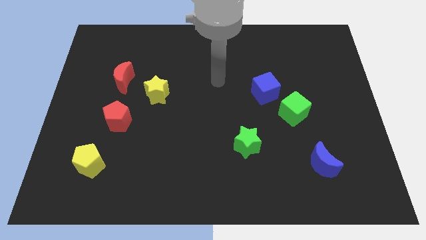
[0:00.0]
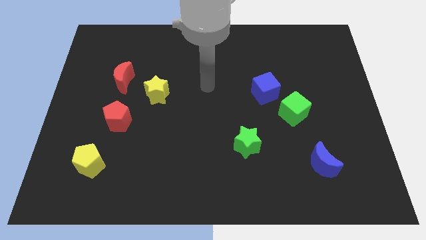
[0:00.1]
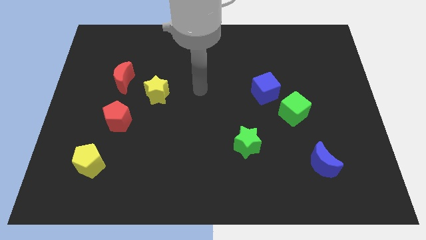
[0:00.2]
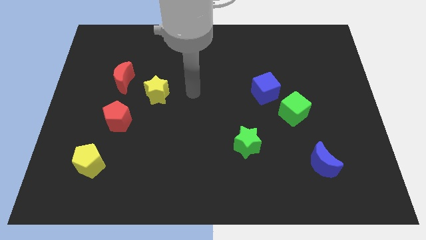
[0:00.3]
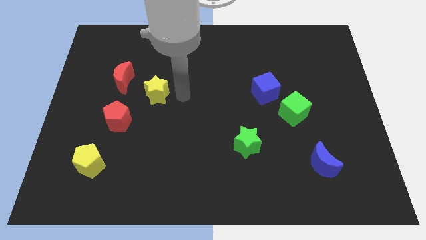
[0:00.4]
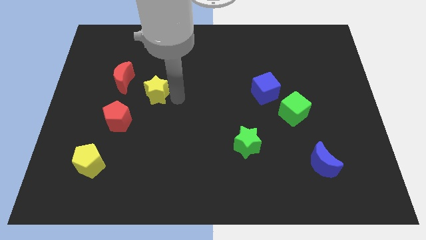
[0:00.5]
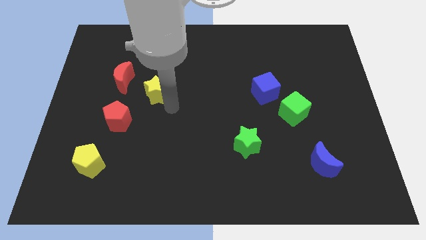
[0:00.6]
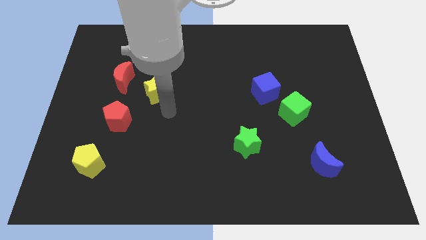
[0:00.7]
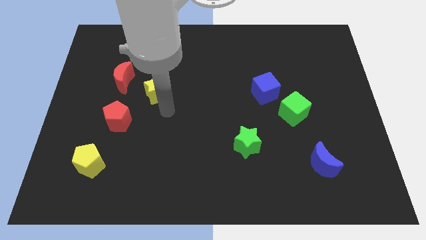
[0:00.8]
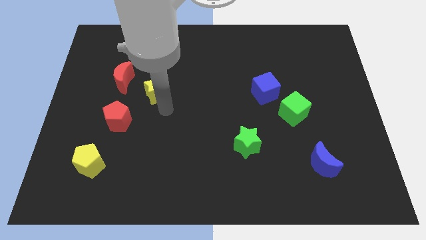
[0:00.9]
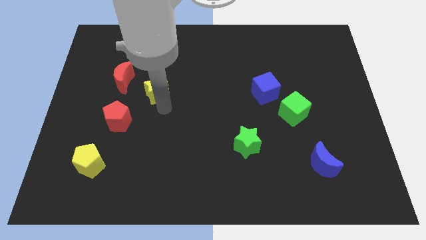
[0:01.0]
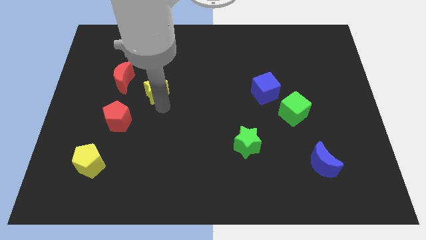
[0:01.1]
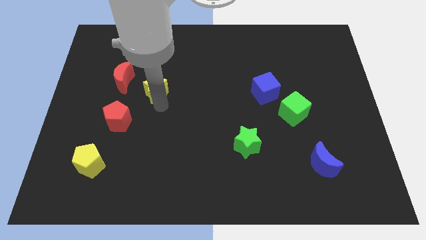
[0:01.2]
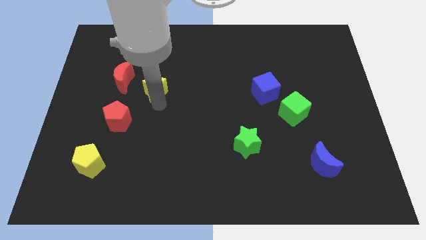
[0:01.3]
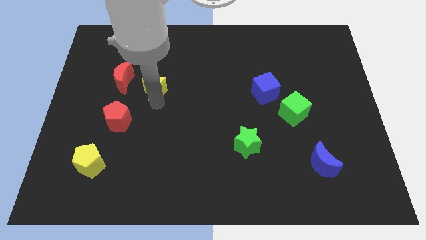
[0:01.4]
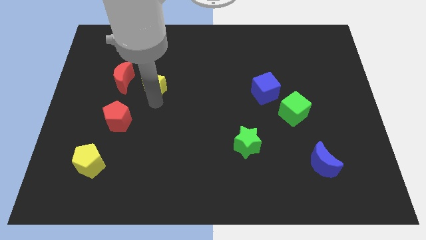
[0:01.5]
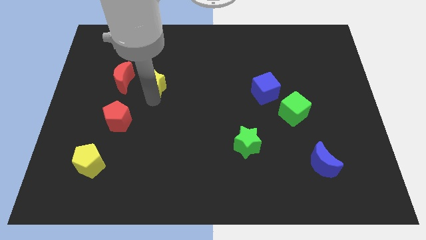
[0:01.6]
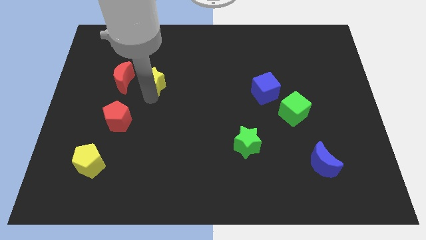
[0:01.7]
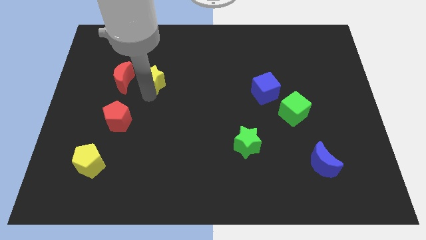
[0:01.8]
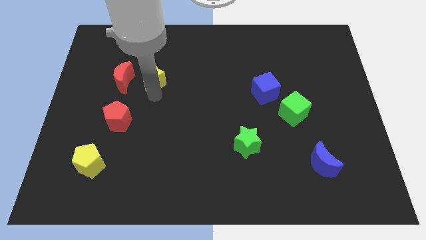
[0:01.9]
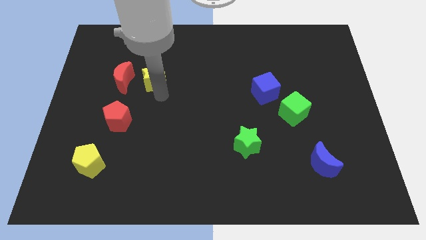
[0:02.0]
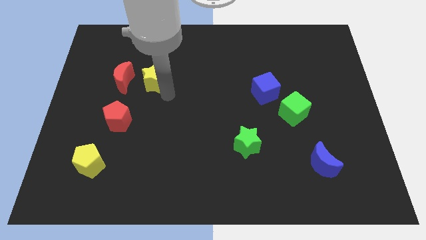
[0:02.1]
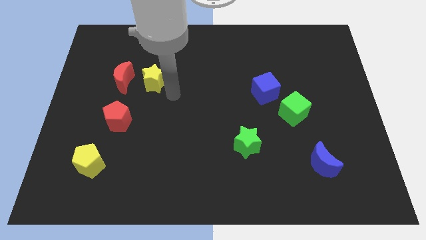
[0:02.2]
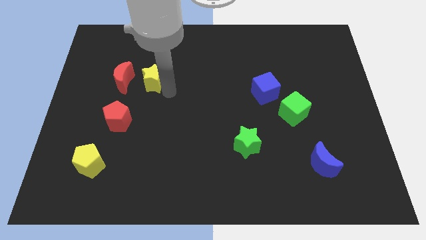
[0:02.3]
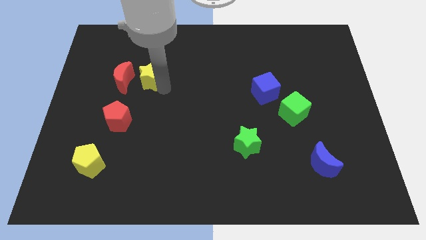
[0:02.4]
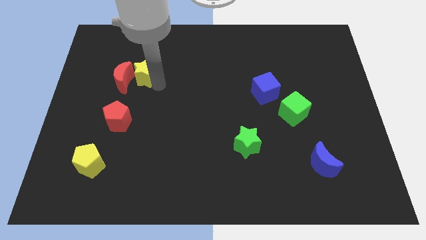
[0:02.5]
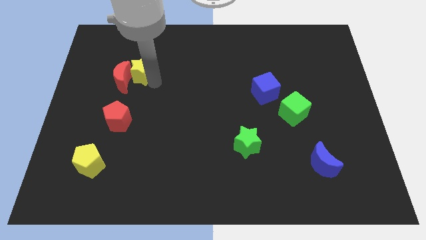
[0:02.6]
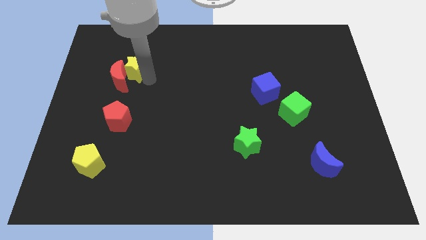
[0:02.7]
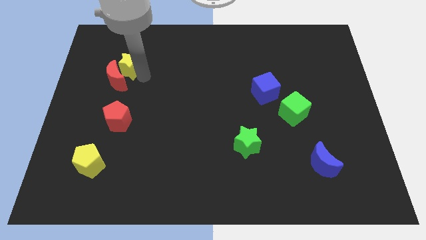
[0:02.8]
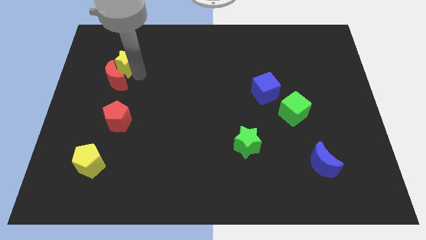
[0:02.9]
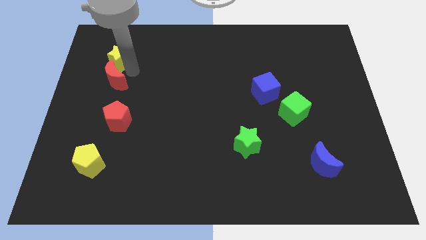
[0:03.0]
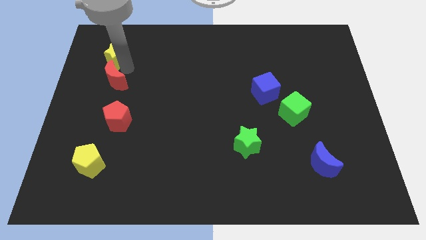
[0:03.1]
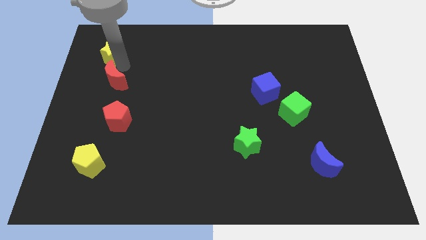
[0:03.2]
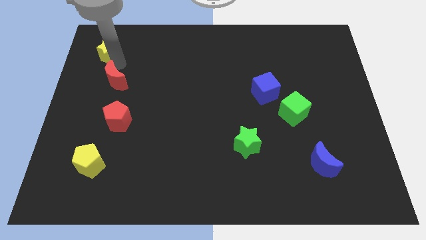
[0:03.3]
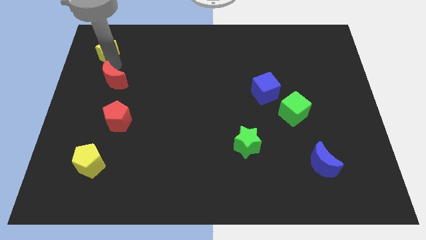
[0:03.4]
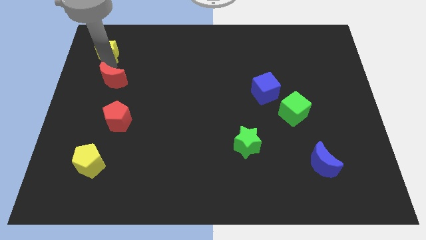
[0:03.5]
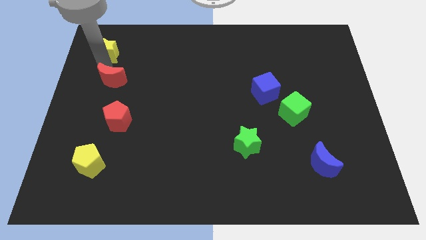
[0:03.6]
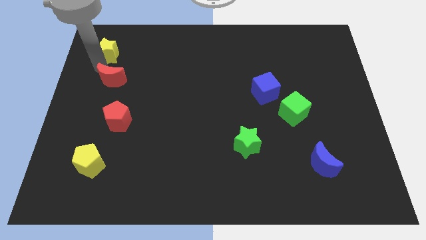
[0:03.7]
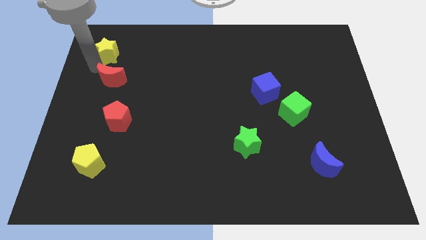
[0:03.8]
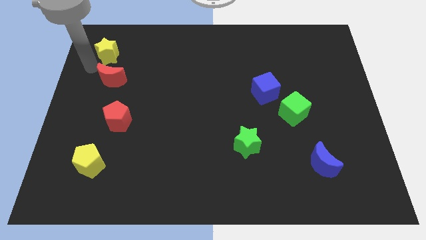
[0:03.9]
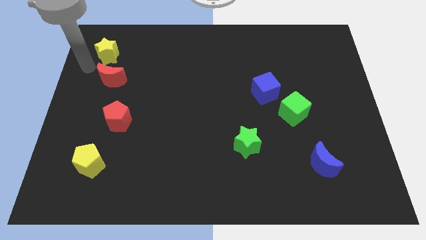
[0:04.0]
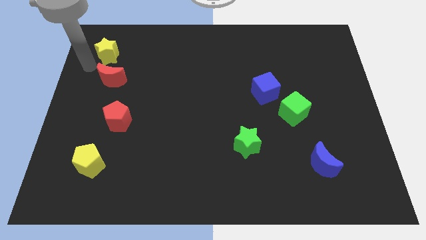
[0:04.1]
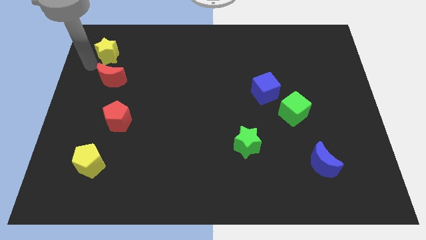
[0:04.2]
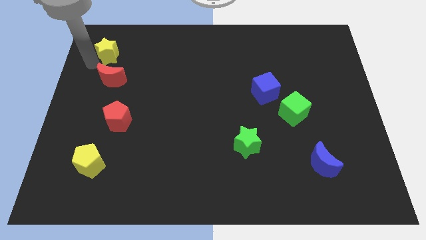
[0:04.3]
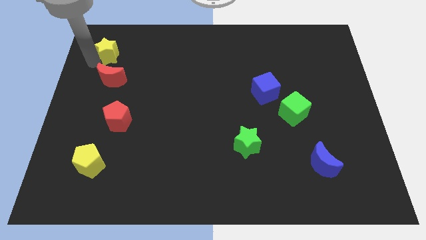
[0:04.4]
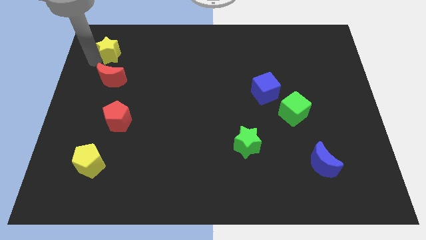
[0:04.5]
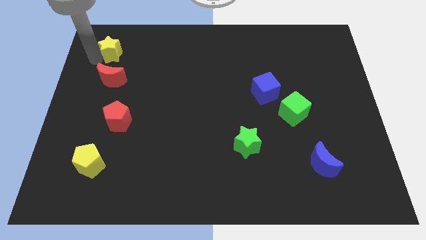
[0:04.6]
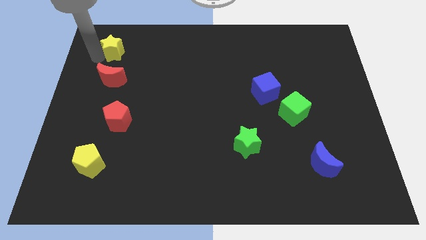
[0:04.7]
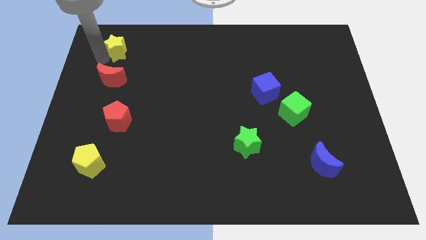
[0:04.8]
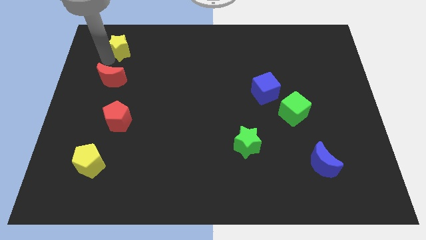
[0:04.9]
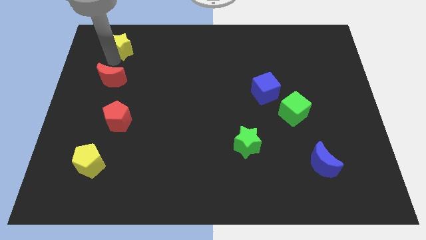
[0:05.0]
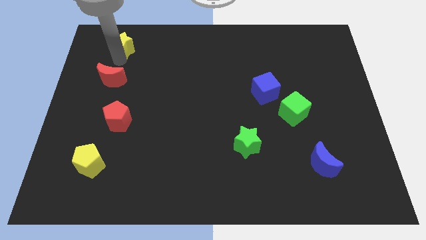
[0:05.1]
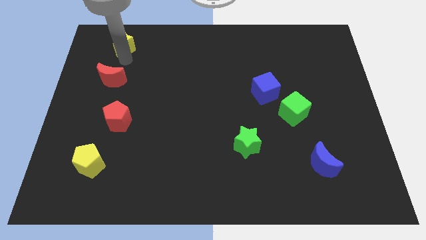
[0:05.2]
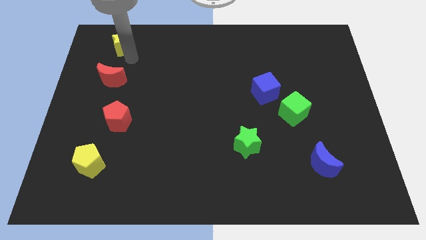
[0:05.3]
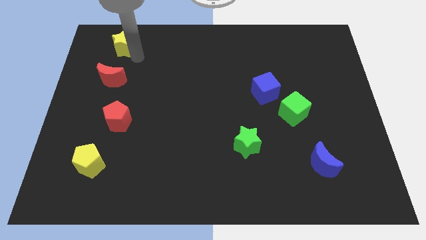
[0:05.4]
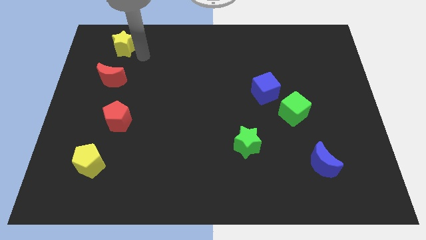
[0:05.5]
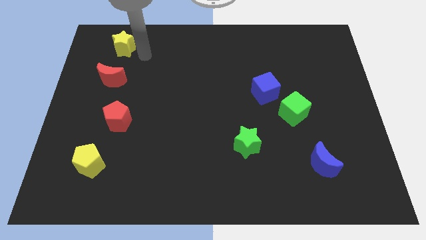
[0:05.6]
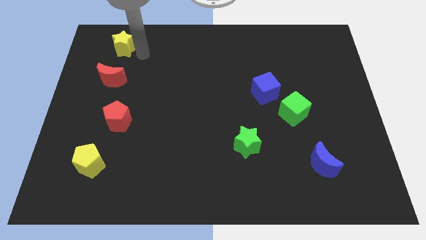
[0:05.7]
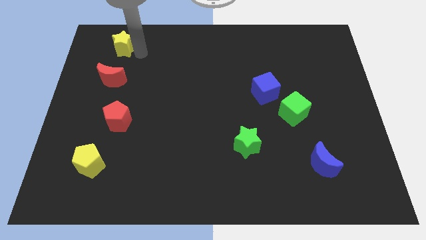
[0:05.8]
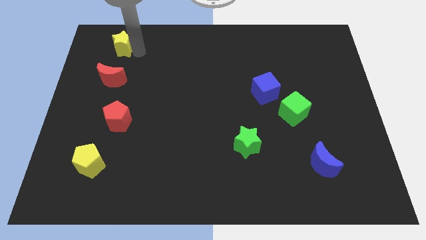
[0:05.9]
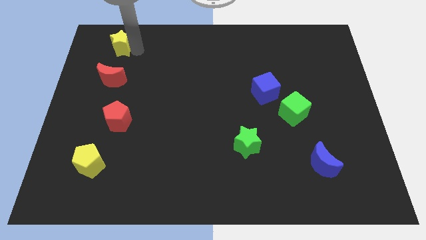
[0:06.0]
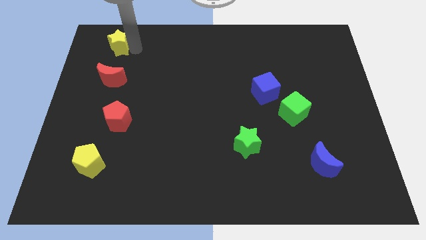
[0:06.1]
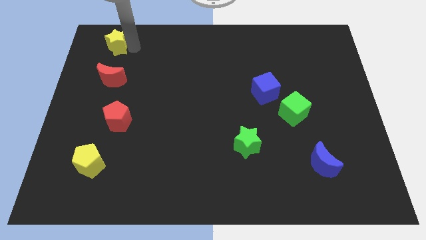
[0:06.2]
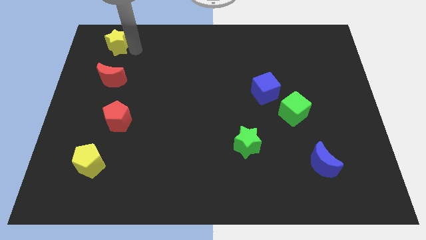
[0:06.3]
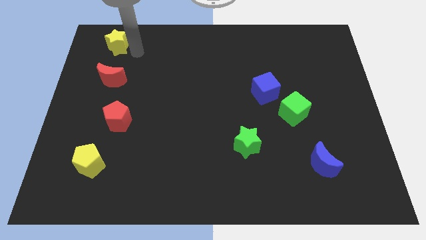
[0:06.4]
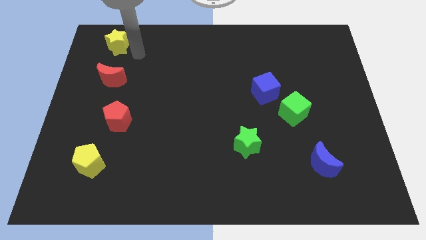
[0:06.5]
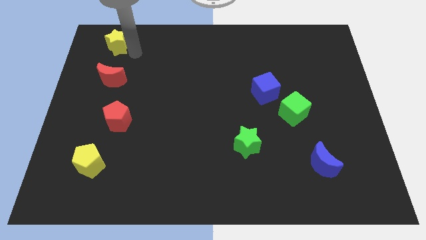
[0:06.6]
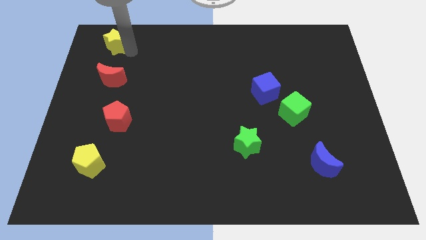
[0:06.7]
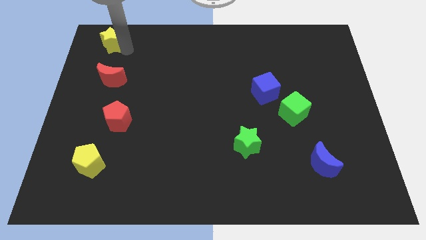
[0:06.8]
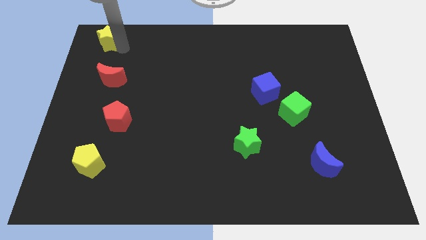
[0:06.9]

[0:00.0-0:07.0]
push the yellow star to the top left

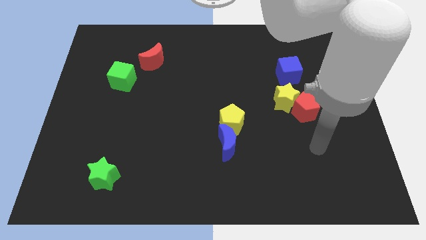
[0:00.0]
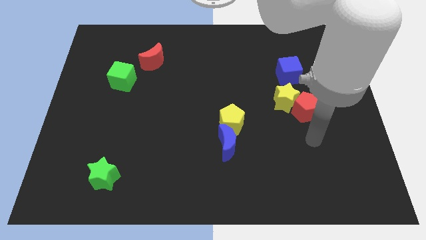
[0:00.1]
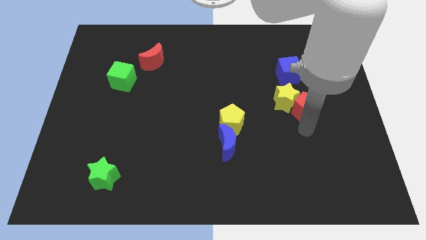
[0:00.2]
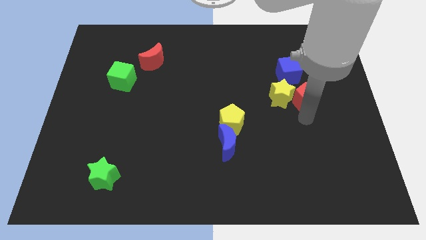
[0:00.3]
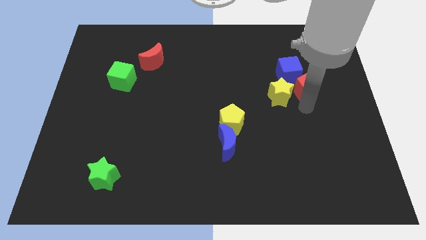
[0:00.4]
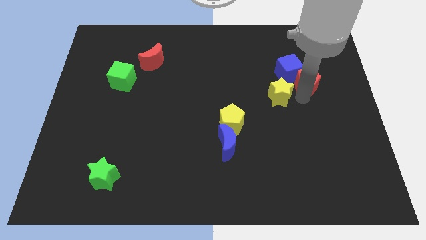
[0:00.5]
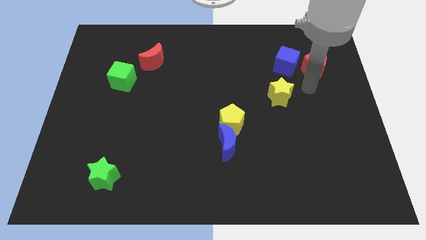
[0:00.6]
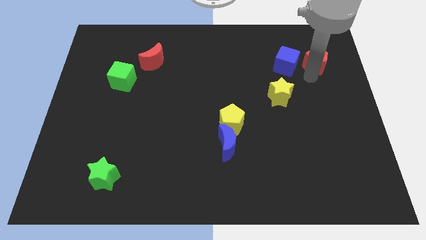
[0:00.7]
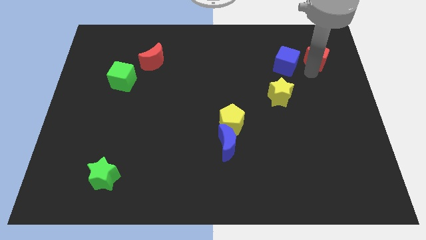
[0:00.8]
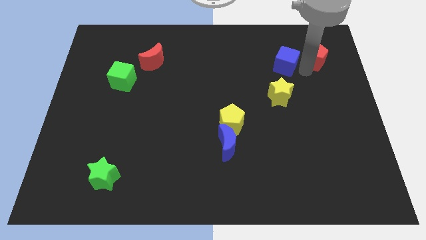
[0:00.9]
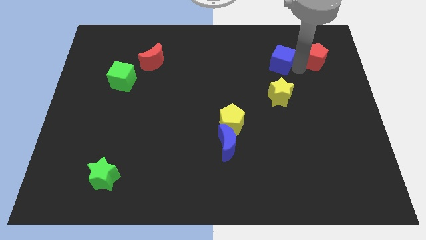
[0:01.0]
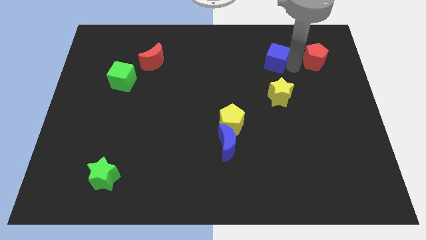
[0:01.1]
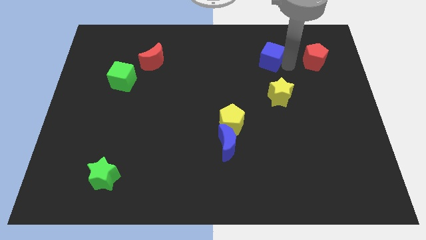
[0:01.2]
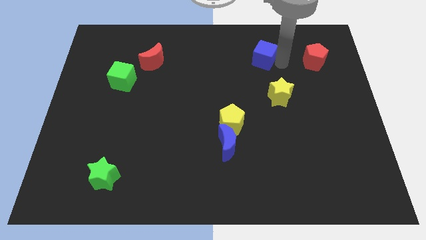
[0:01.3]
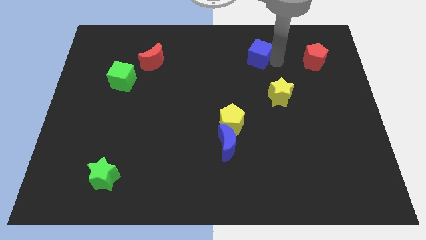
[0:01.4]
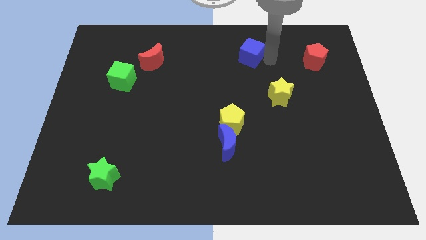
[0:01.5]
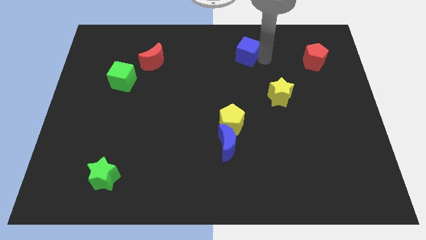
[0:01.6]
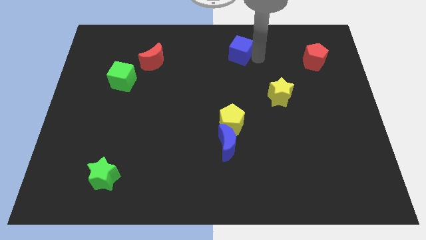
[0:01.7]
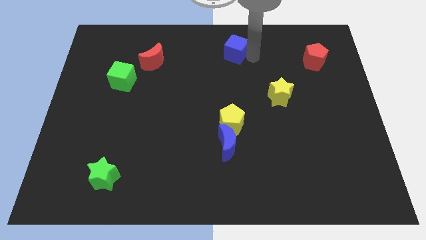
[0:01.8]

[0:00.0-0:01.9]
put the blue cube to the top
